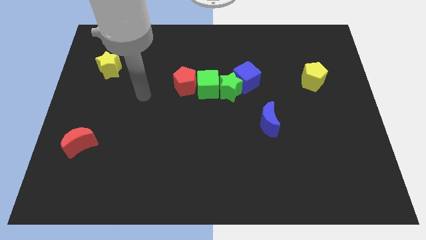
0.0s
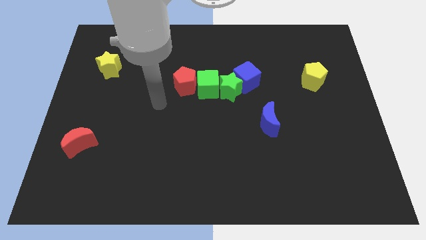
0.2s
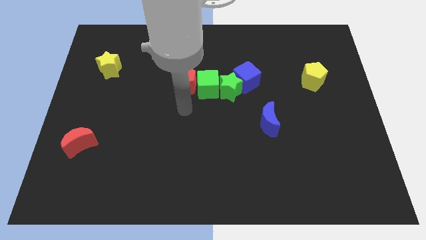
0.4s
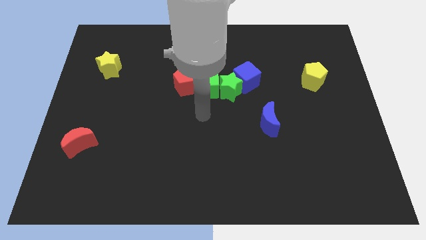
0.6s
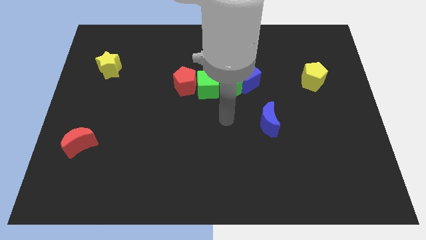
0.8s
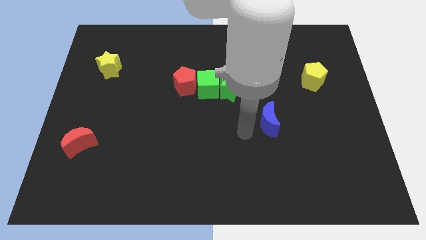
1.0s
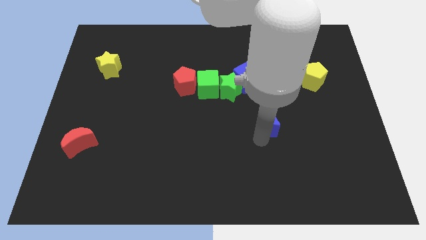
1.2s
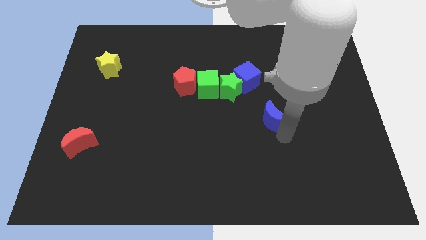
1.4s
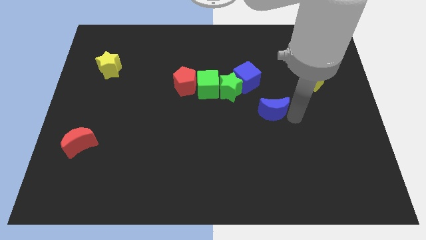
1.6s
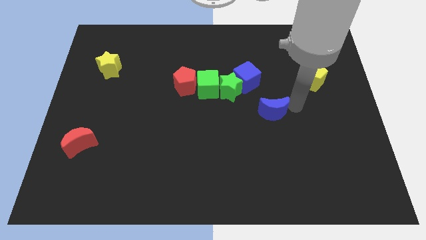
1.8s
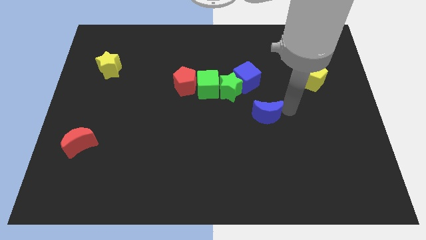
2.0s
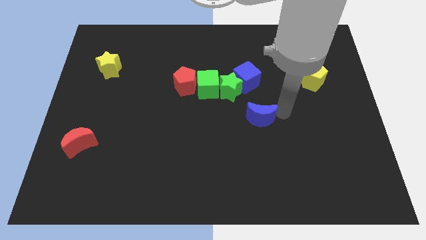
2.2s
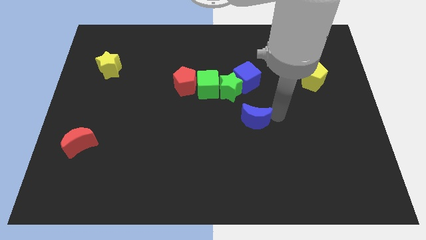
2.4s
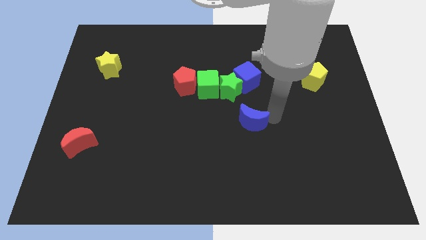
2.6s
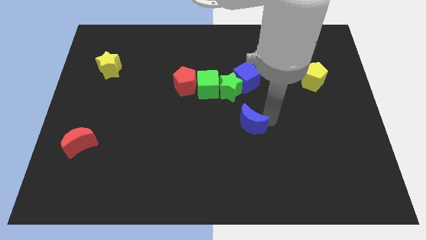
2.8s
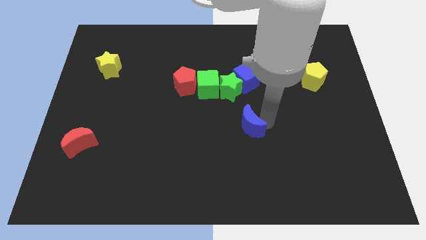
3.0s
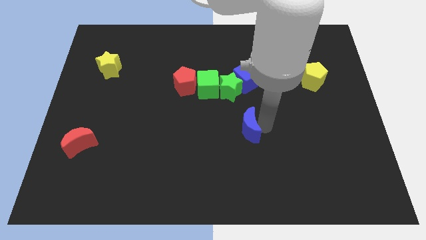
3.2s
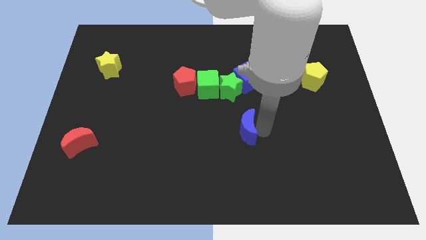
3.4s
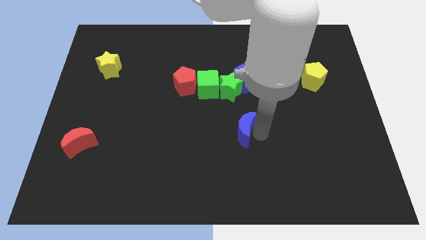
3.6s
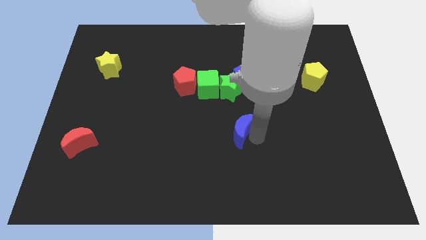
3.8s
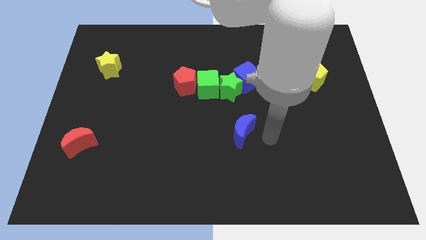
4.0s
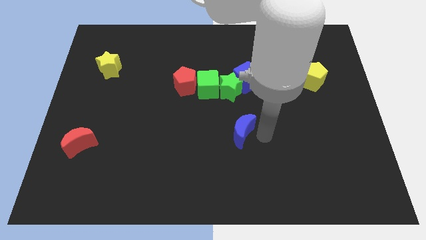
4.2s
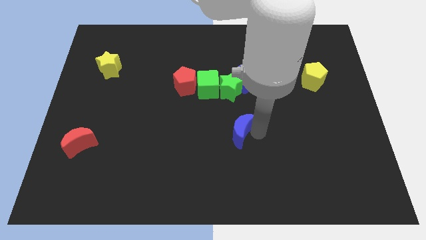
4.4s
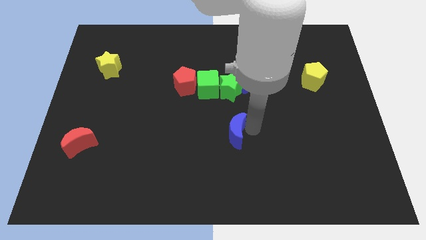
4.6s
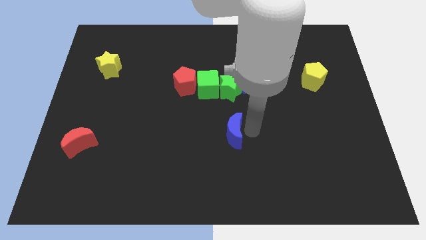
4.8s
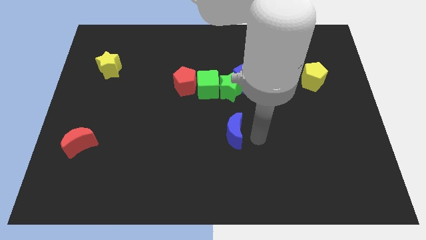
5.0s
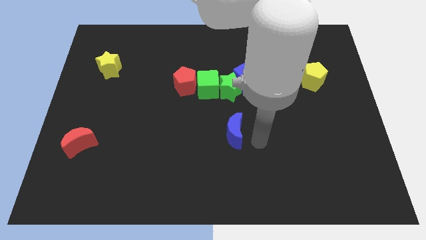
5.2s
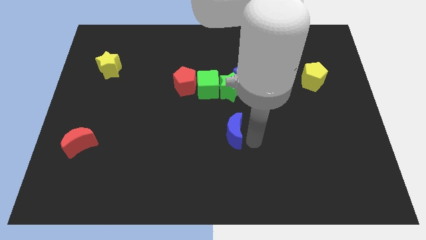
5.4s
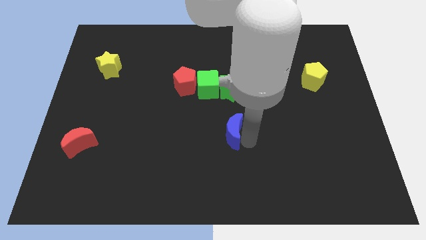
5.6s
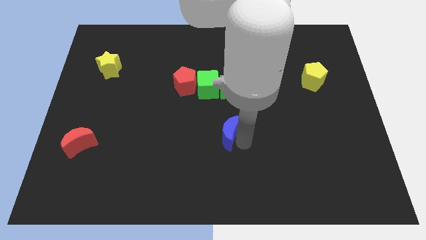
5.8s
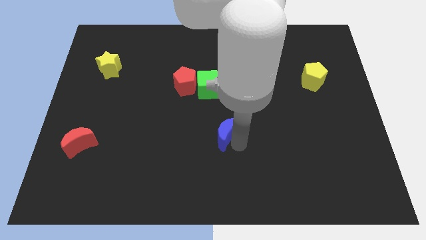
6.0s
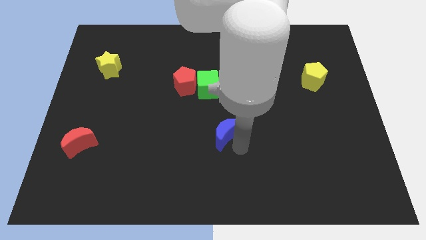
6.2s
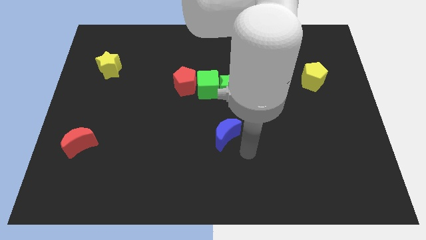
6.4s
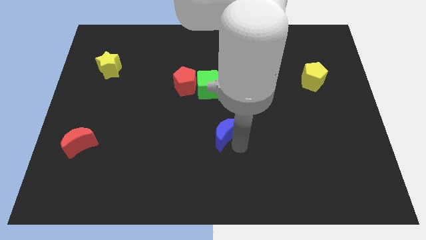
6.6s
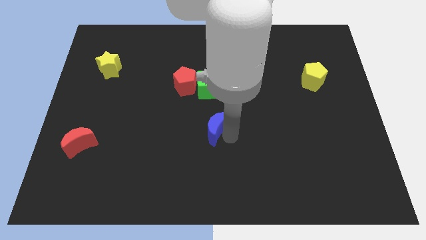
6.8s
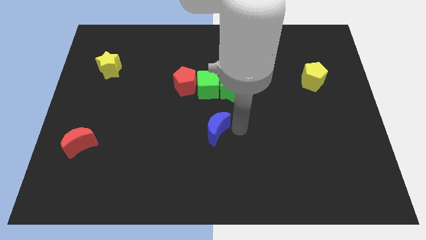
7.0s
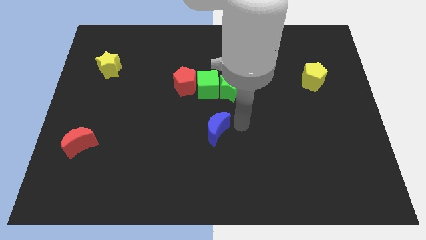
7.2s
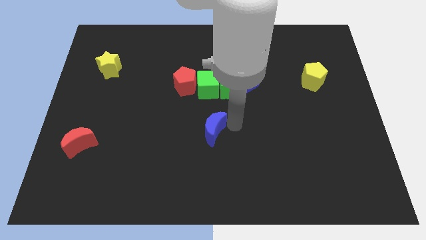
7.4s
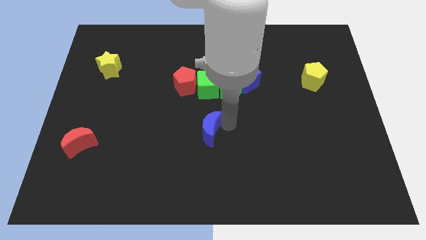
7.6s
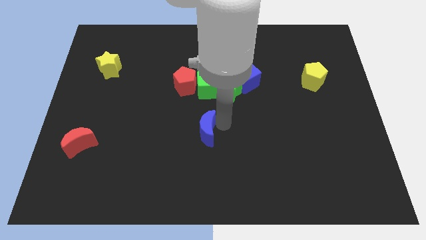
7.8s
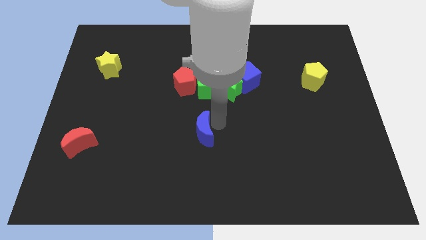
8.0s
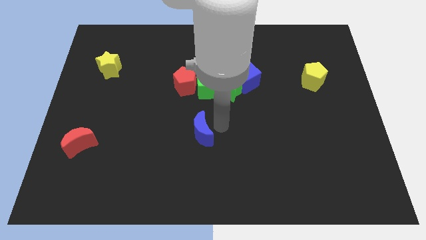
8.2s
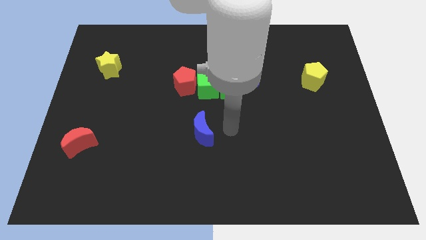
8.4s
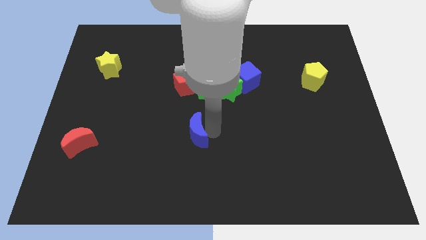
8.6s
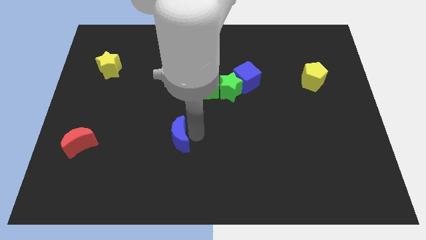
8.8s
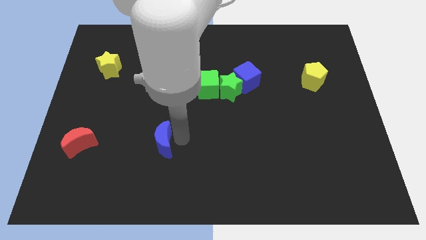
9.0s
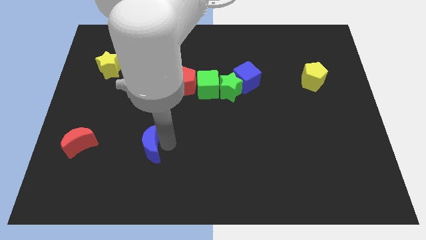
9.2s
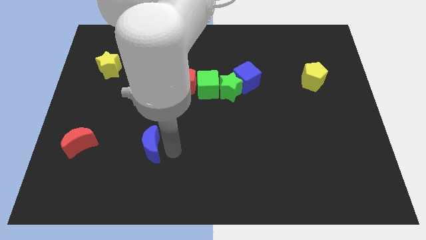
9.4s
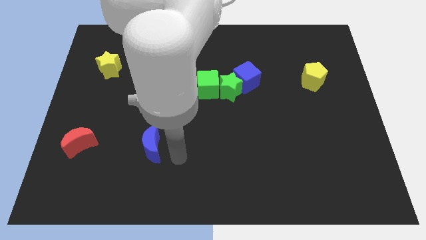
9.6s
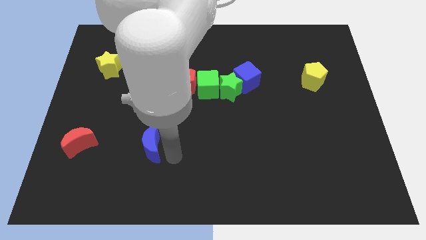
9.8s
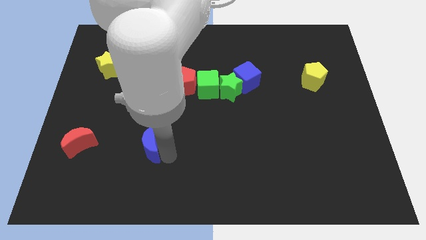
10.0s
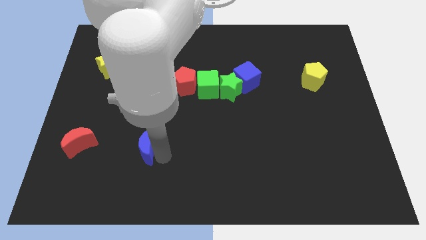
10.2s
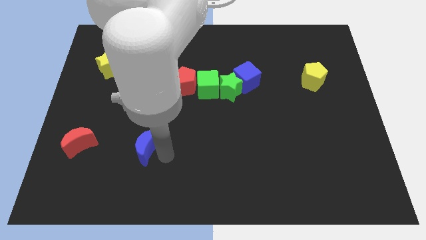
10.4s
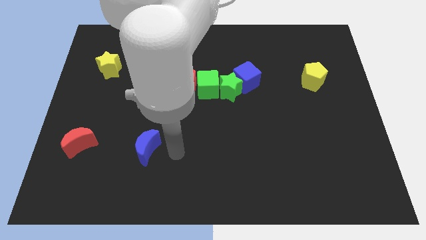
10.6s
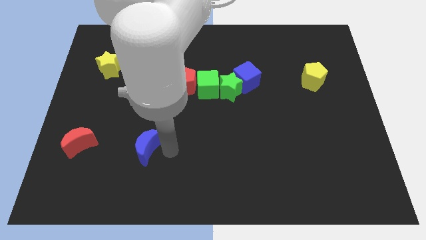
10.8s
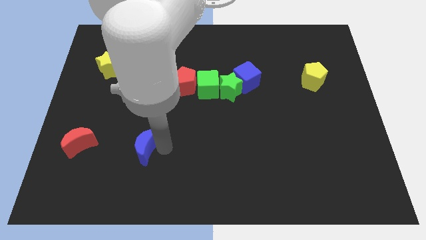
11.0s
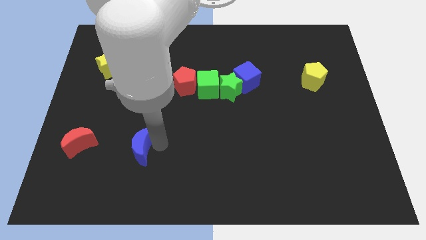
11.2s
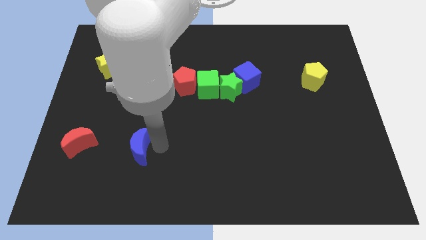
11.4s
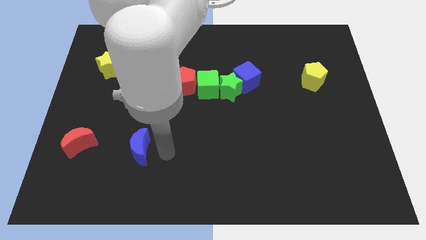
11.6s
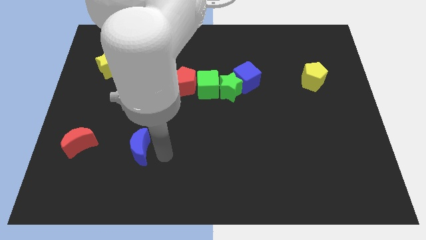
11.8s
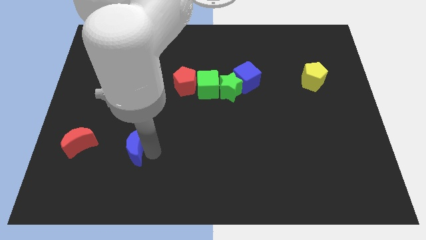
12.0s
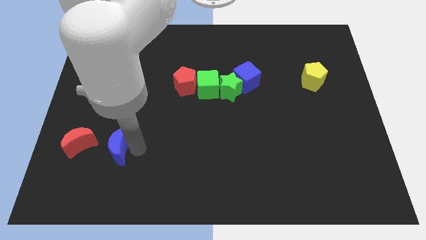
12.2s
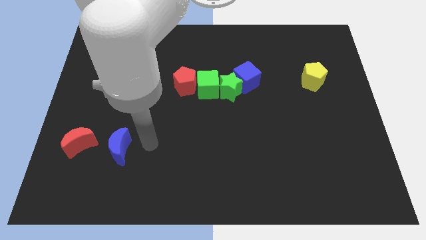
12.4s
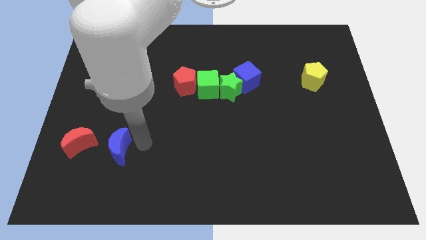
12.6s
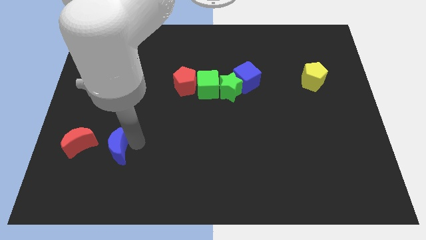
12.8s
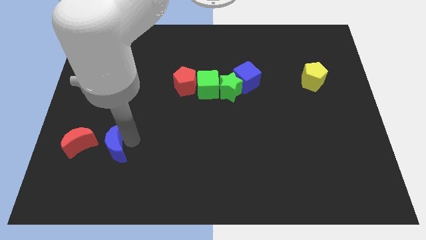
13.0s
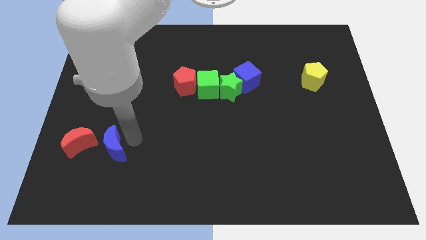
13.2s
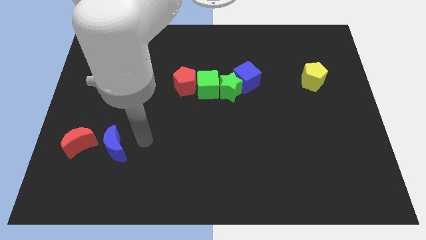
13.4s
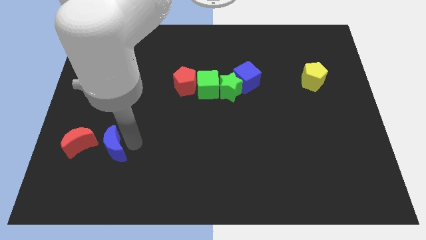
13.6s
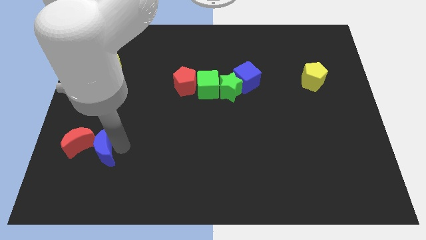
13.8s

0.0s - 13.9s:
put the blue moon towards the red moon
